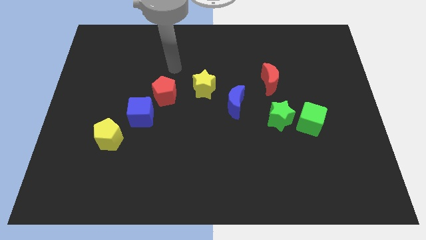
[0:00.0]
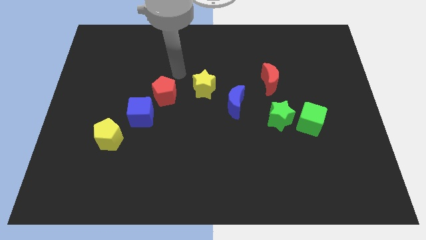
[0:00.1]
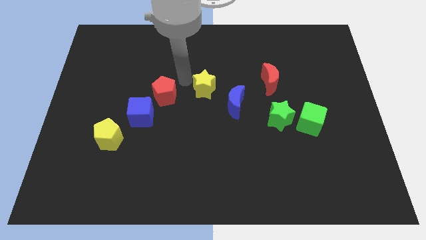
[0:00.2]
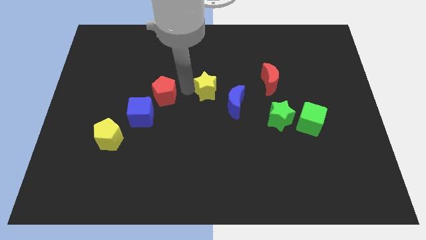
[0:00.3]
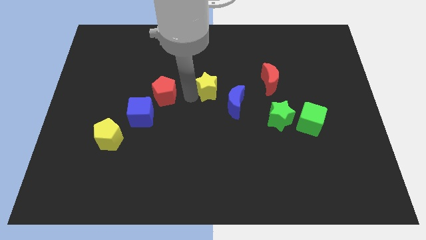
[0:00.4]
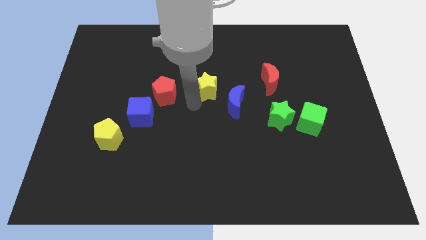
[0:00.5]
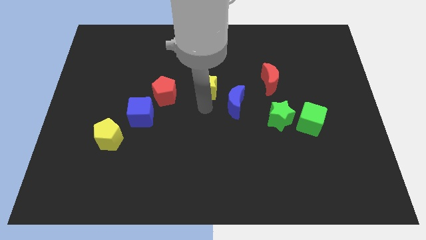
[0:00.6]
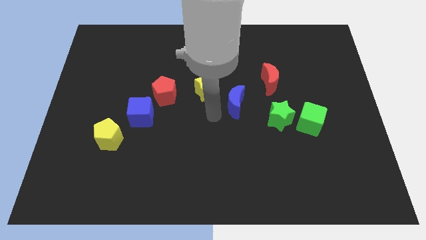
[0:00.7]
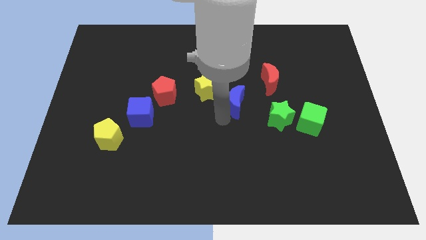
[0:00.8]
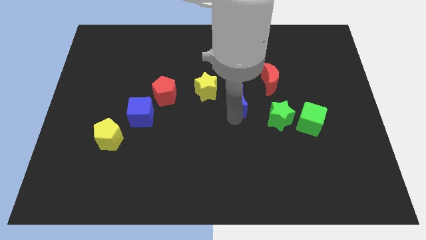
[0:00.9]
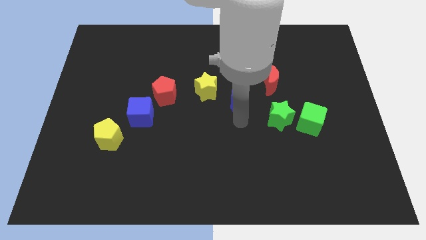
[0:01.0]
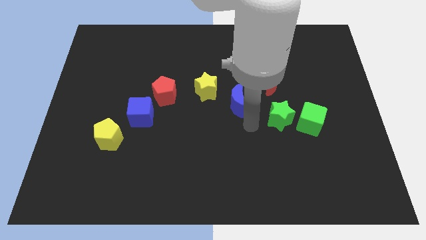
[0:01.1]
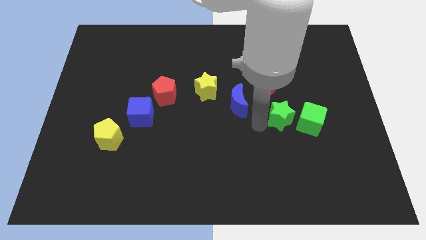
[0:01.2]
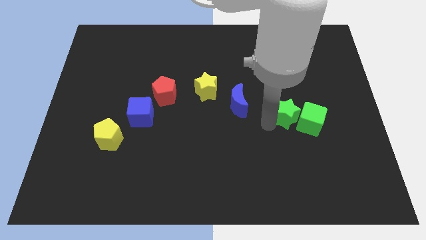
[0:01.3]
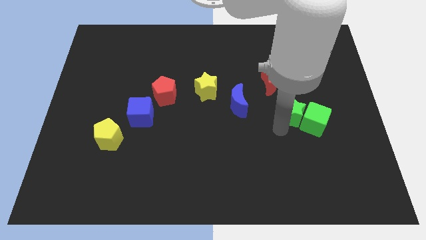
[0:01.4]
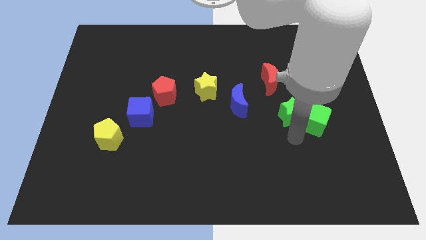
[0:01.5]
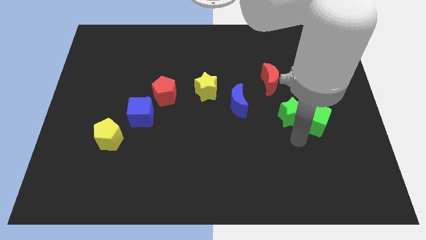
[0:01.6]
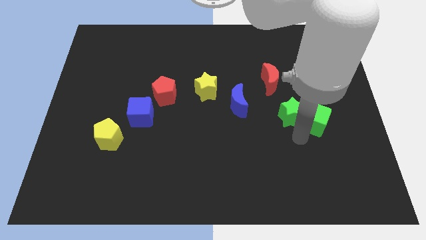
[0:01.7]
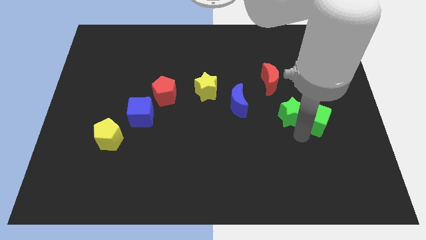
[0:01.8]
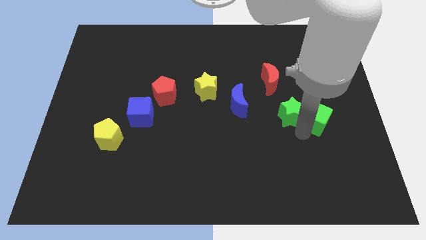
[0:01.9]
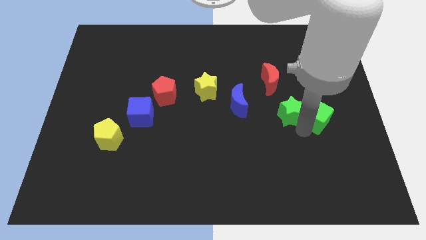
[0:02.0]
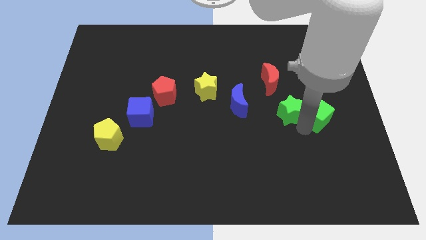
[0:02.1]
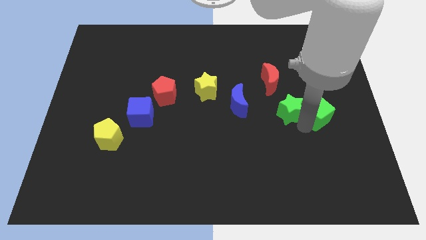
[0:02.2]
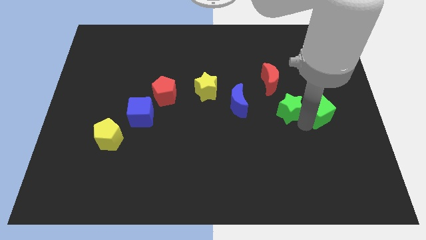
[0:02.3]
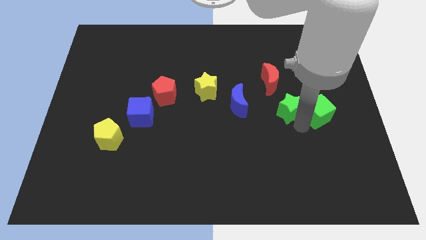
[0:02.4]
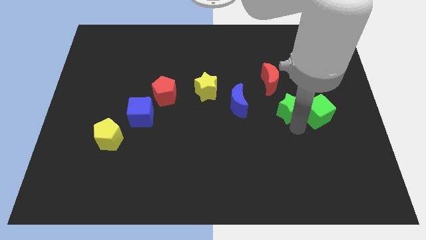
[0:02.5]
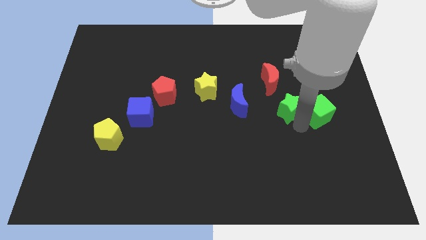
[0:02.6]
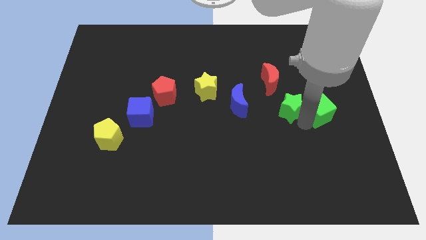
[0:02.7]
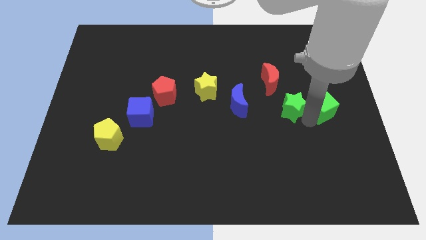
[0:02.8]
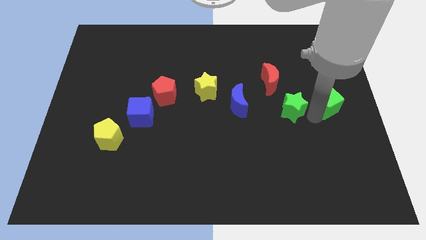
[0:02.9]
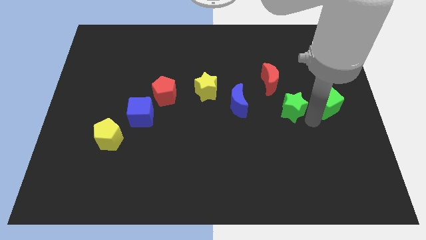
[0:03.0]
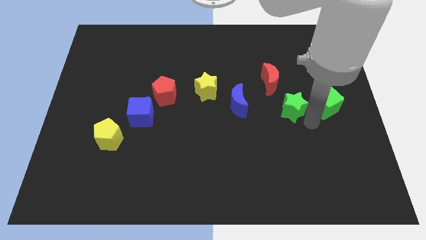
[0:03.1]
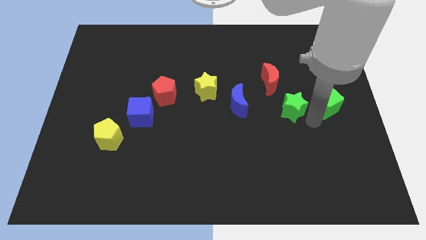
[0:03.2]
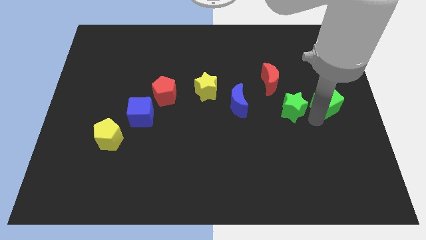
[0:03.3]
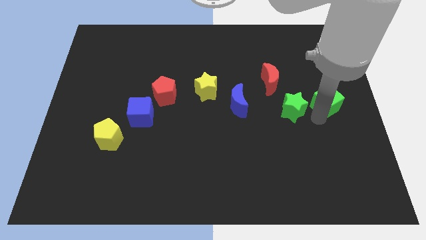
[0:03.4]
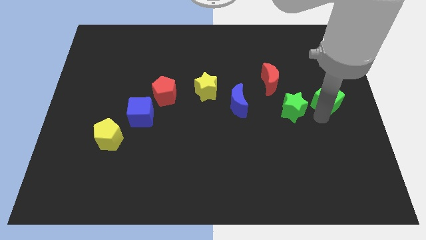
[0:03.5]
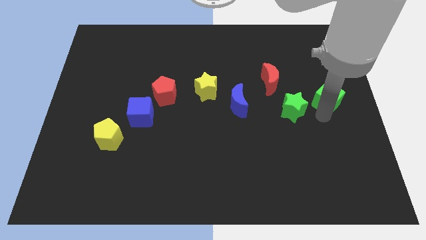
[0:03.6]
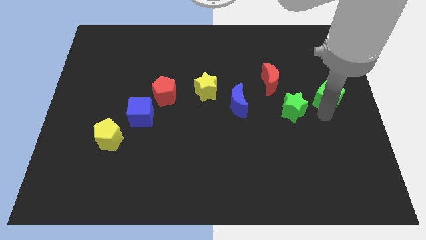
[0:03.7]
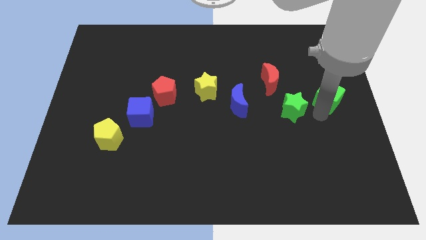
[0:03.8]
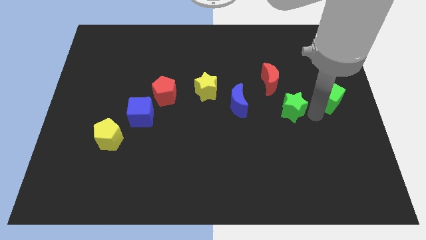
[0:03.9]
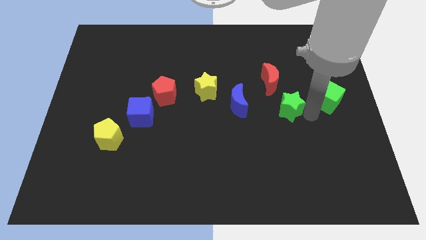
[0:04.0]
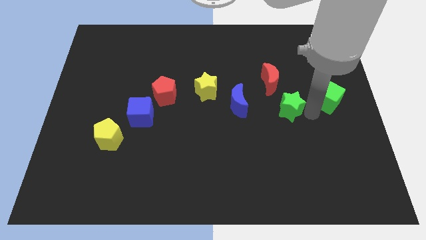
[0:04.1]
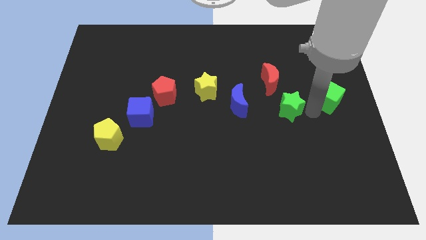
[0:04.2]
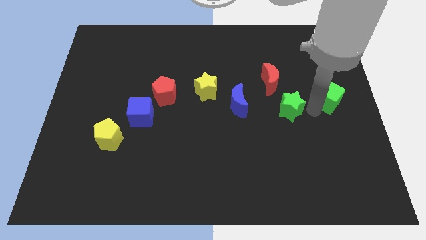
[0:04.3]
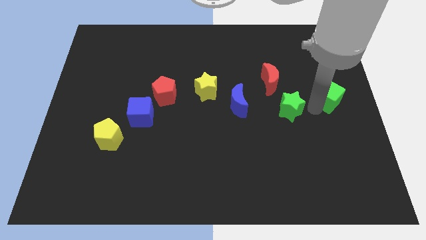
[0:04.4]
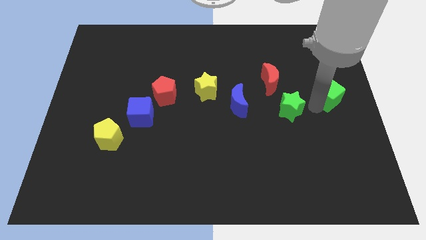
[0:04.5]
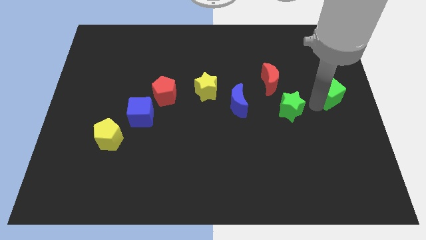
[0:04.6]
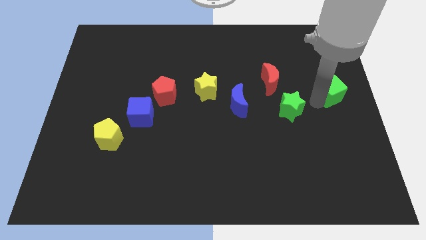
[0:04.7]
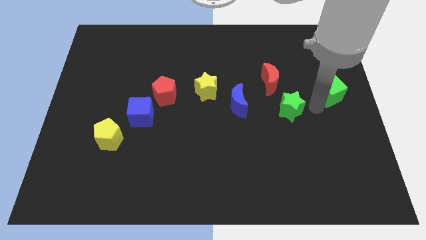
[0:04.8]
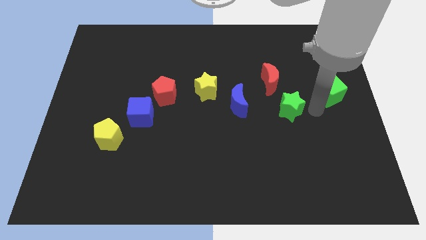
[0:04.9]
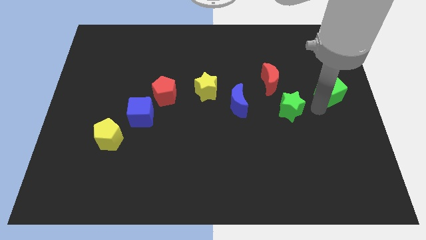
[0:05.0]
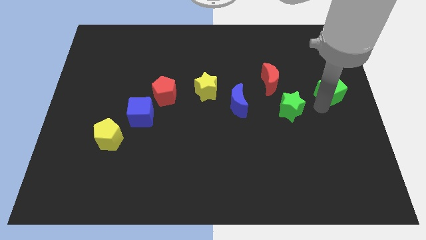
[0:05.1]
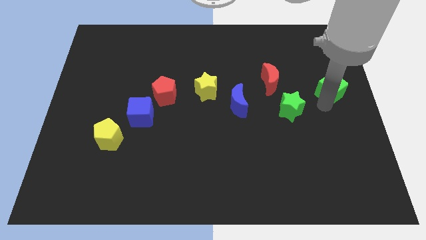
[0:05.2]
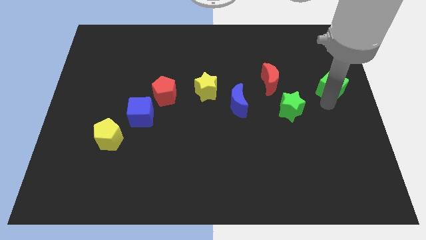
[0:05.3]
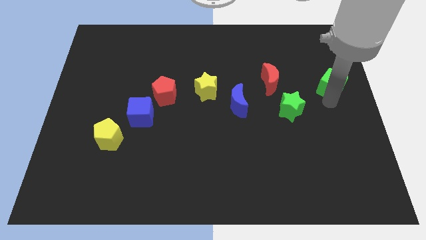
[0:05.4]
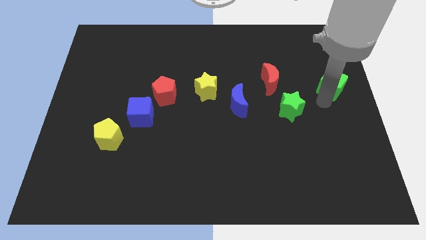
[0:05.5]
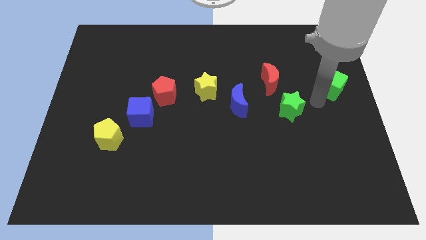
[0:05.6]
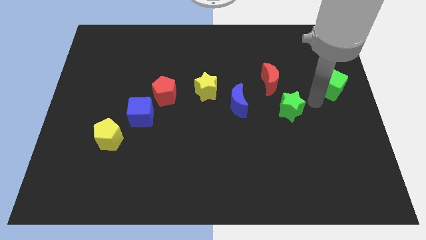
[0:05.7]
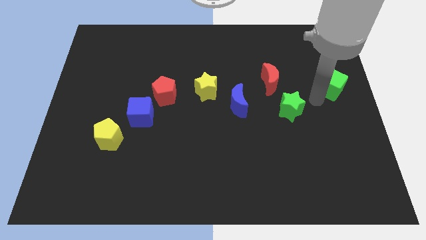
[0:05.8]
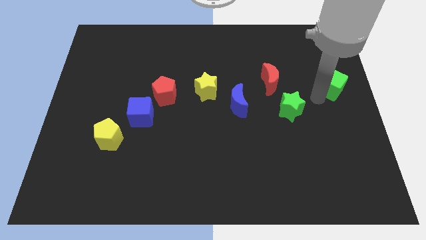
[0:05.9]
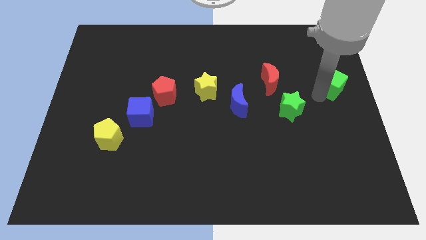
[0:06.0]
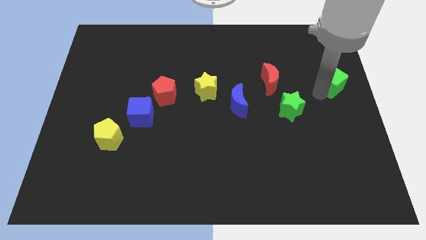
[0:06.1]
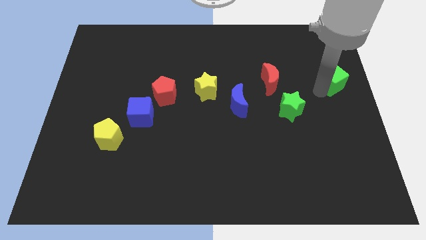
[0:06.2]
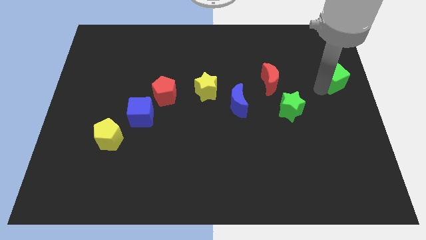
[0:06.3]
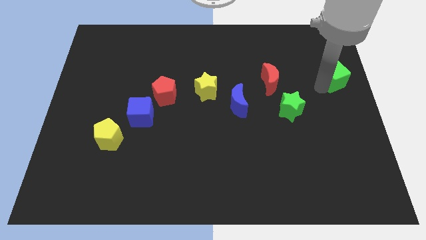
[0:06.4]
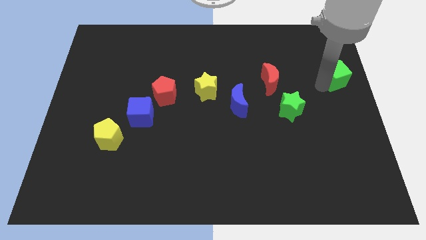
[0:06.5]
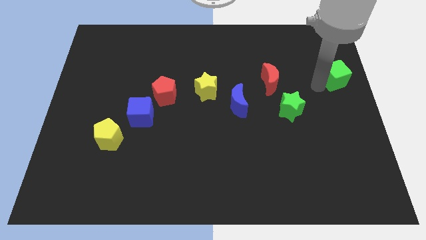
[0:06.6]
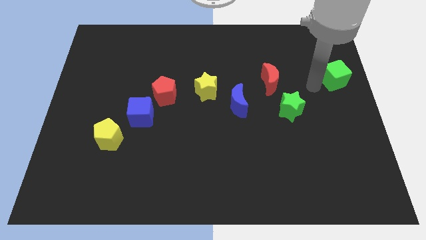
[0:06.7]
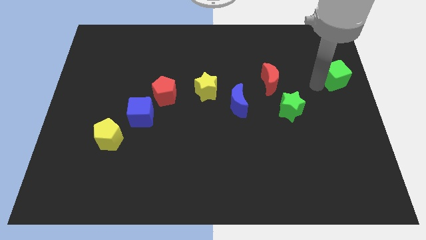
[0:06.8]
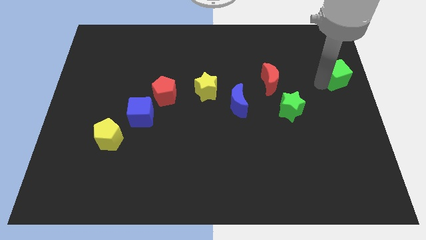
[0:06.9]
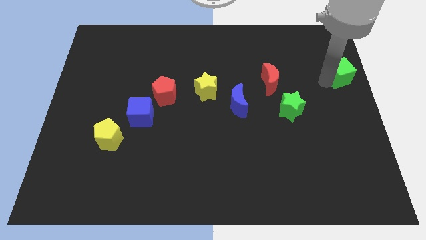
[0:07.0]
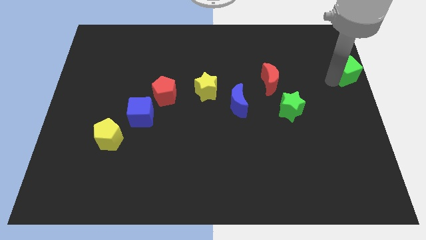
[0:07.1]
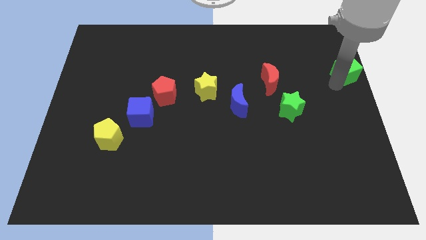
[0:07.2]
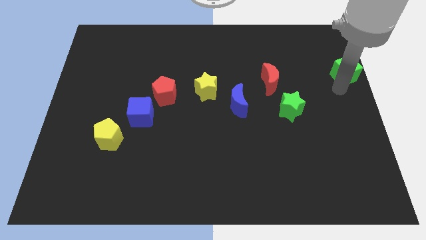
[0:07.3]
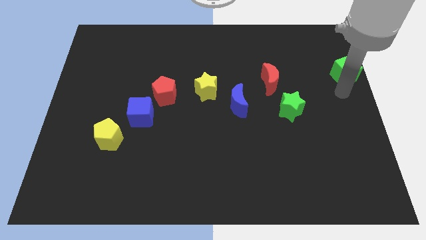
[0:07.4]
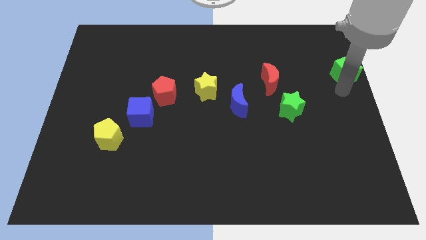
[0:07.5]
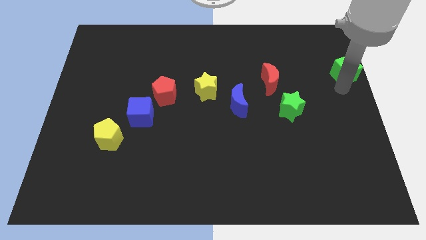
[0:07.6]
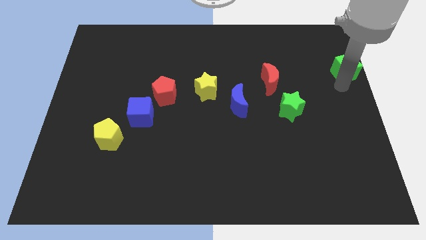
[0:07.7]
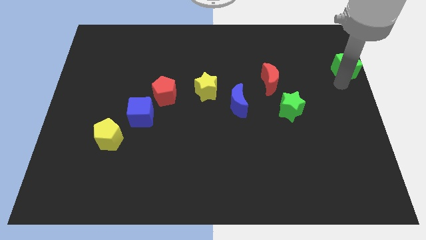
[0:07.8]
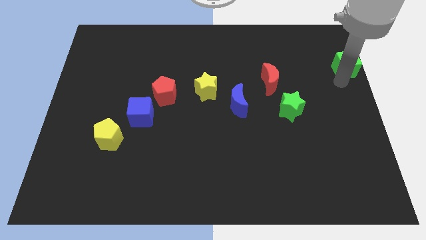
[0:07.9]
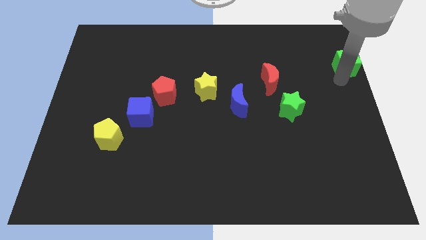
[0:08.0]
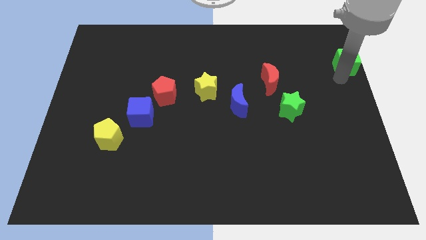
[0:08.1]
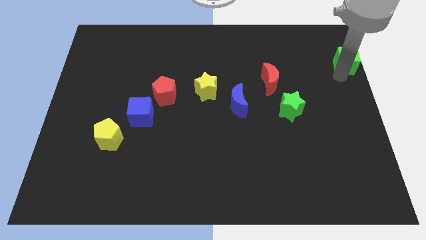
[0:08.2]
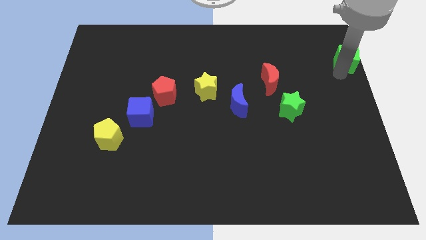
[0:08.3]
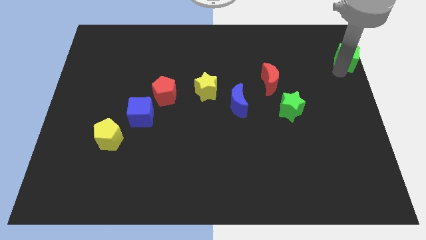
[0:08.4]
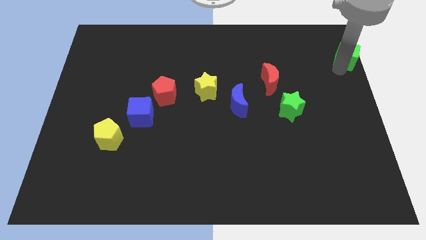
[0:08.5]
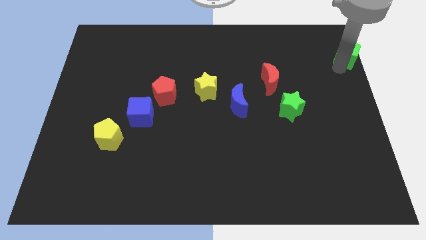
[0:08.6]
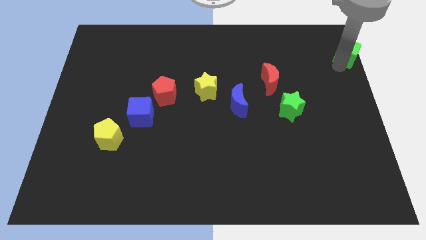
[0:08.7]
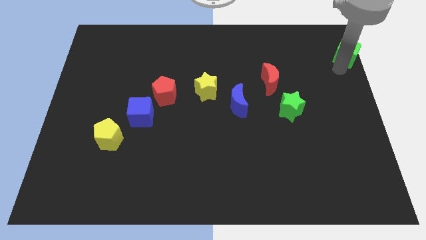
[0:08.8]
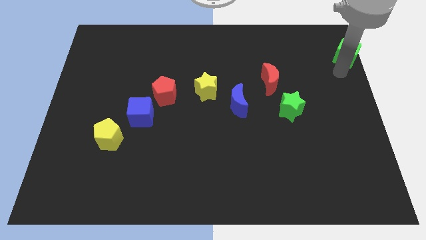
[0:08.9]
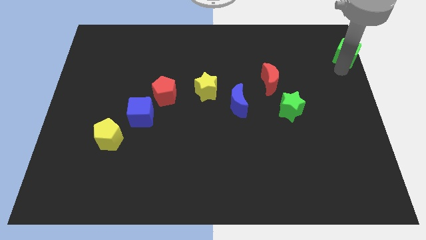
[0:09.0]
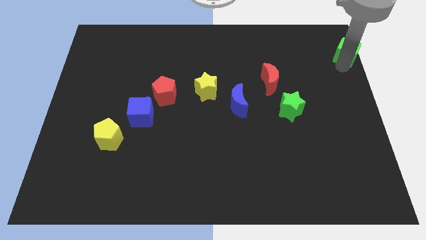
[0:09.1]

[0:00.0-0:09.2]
slide the green cube to the upper right corner
